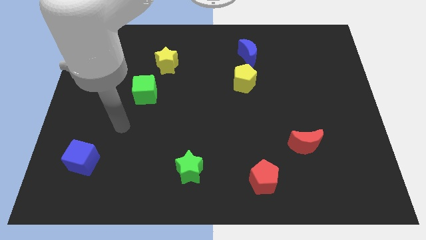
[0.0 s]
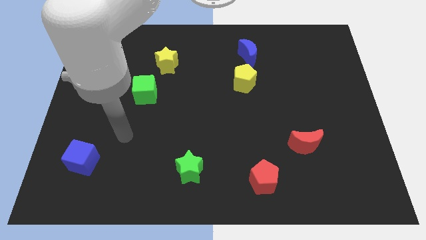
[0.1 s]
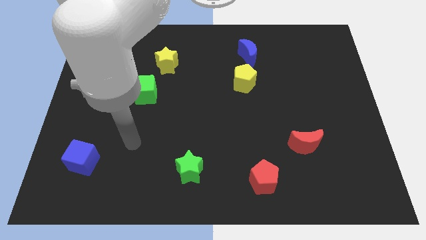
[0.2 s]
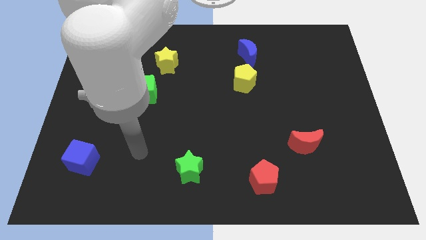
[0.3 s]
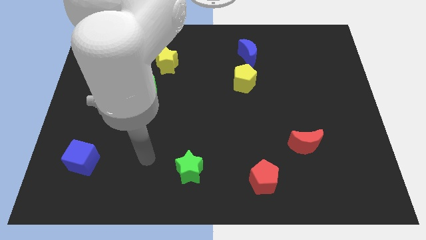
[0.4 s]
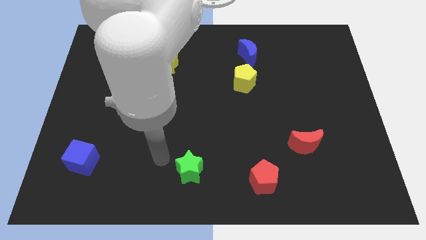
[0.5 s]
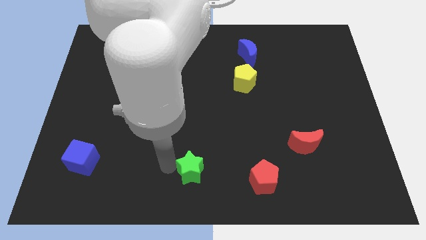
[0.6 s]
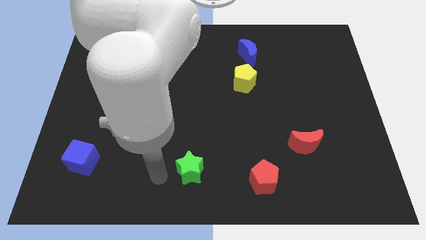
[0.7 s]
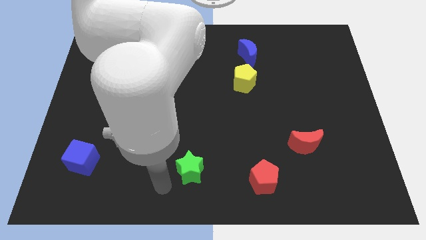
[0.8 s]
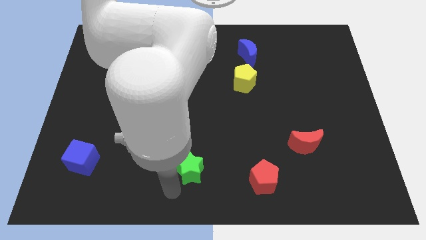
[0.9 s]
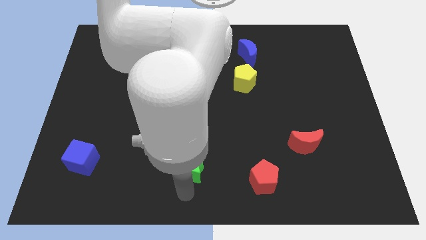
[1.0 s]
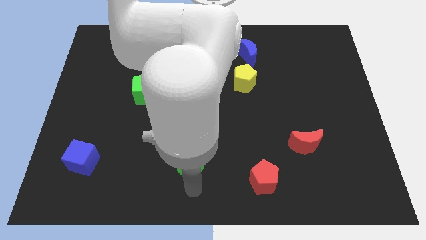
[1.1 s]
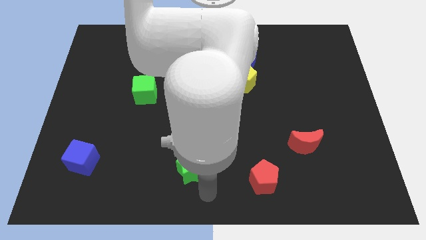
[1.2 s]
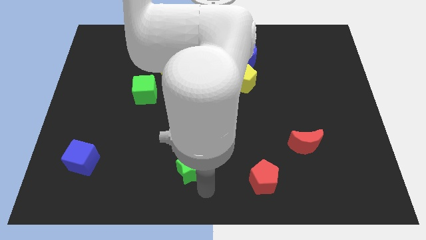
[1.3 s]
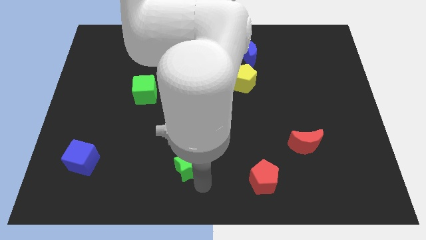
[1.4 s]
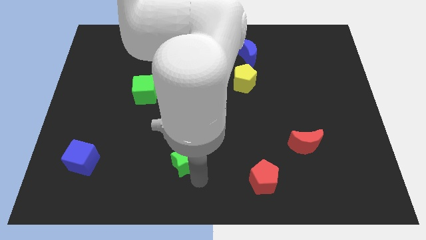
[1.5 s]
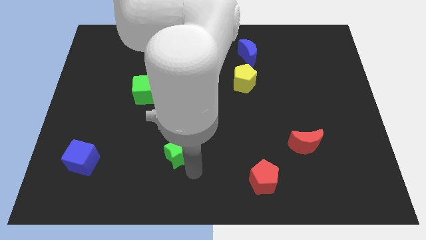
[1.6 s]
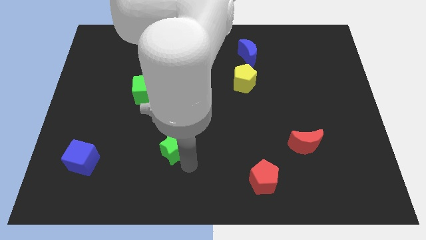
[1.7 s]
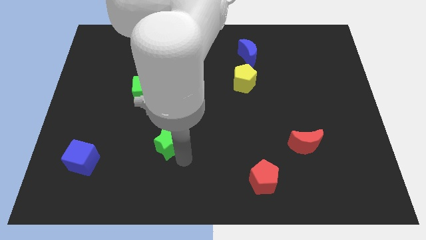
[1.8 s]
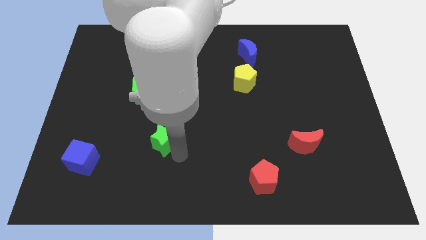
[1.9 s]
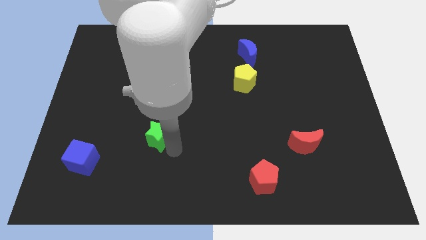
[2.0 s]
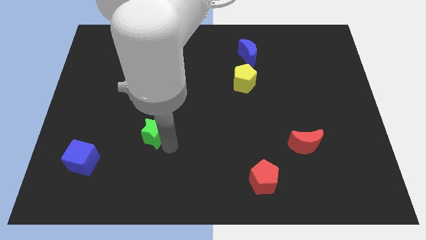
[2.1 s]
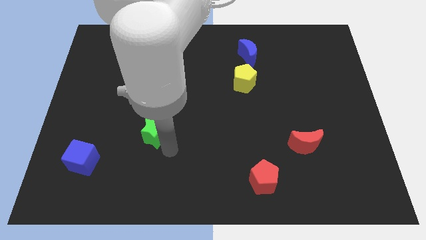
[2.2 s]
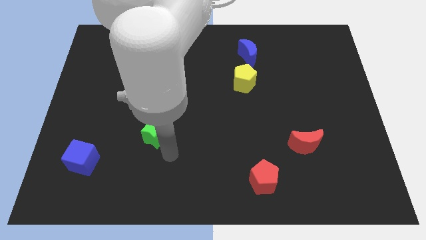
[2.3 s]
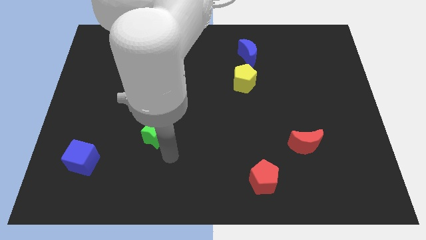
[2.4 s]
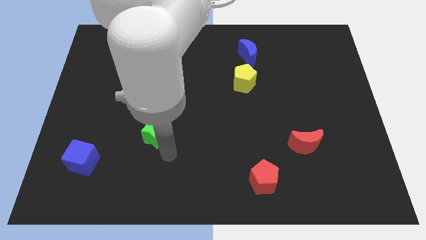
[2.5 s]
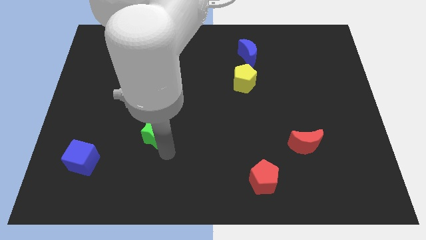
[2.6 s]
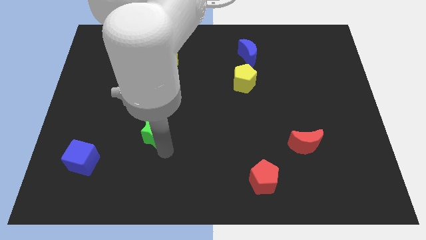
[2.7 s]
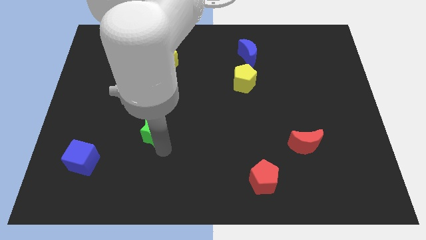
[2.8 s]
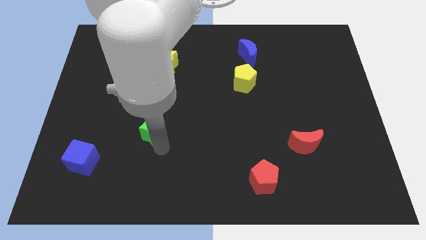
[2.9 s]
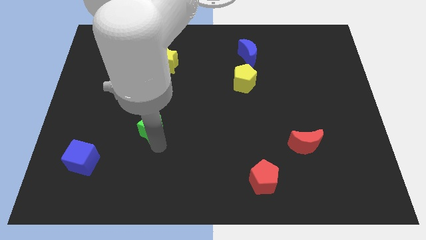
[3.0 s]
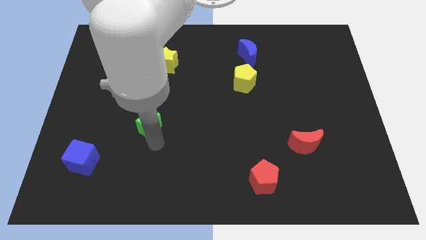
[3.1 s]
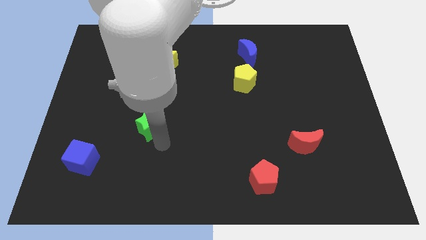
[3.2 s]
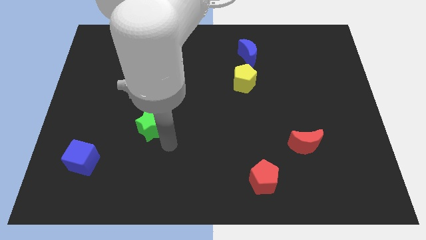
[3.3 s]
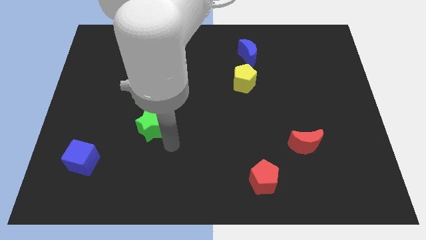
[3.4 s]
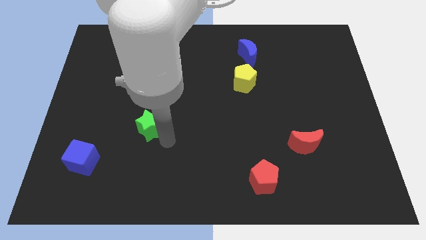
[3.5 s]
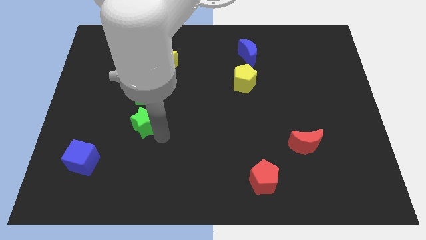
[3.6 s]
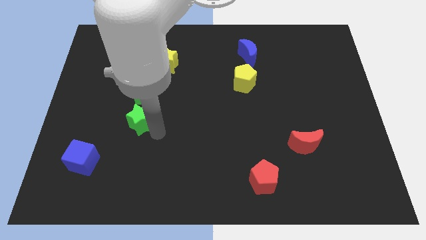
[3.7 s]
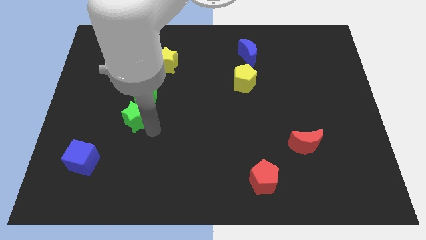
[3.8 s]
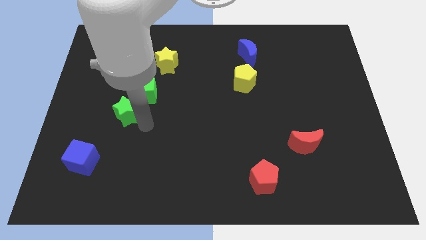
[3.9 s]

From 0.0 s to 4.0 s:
slide the green star up and to the left

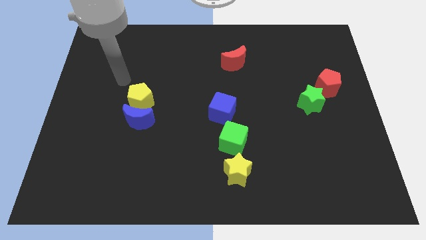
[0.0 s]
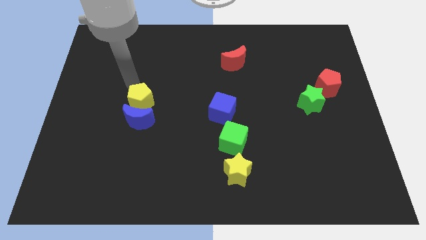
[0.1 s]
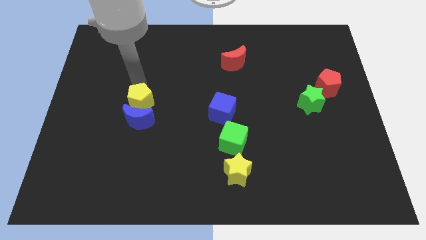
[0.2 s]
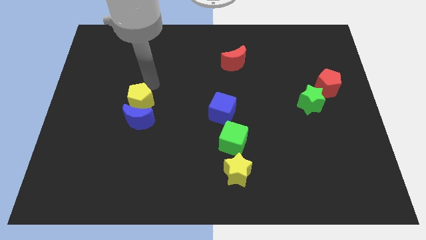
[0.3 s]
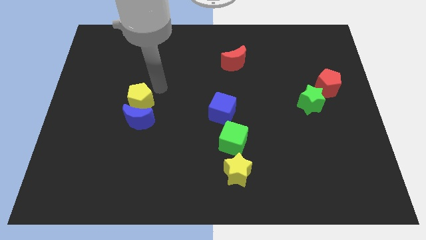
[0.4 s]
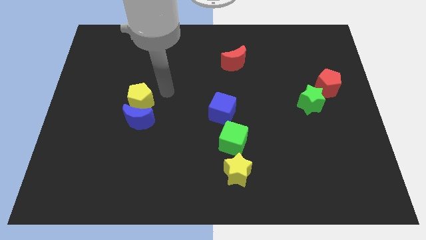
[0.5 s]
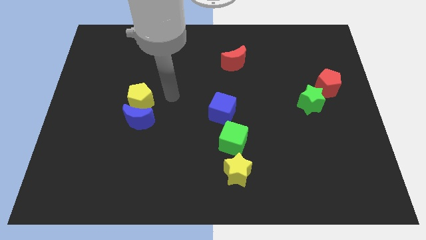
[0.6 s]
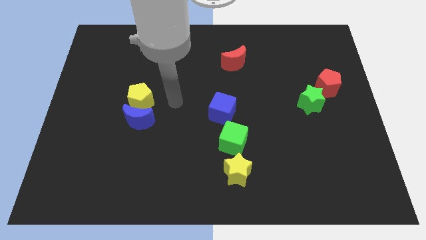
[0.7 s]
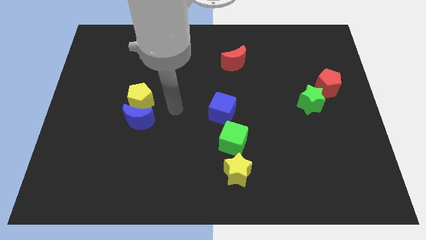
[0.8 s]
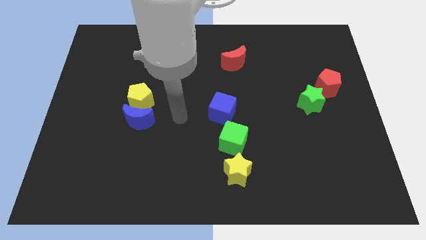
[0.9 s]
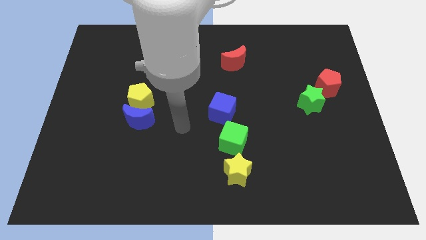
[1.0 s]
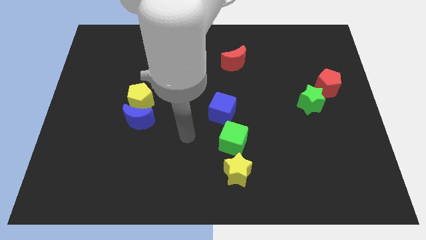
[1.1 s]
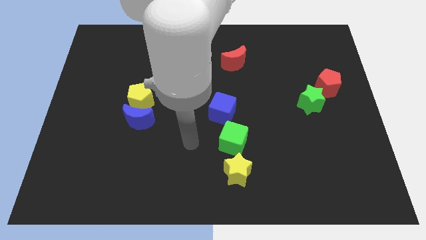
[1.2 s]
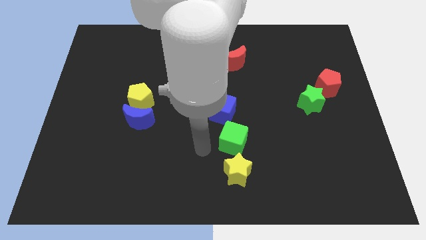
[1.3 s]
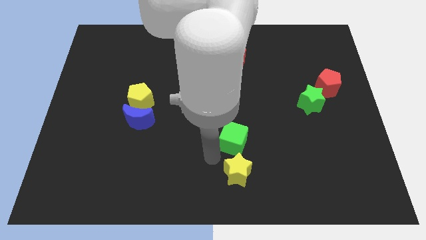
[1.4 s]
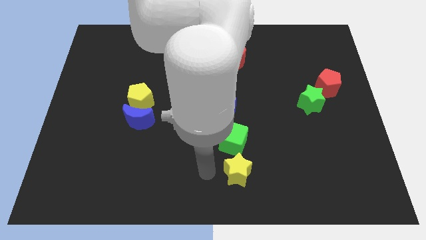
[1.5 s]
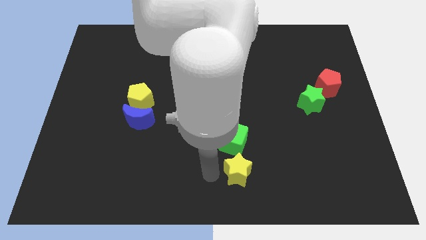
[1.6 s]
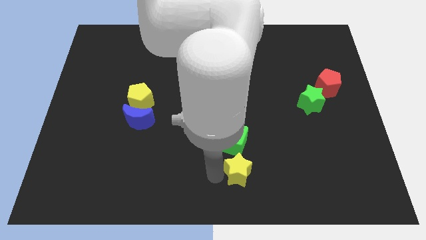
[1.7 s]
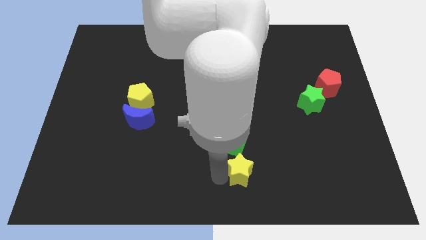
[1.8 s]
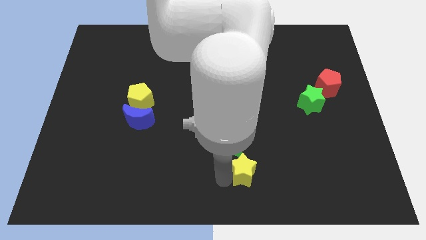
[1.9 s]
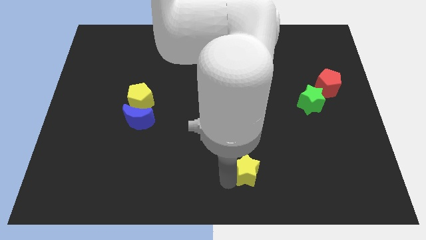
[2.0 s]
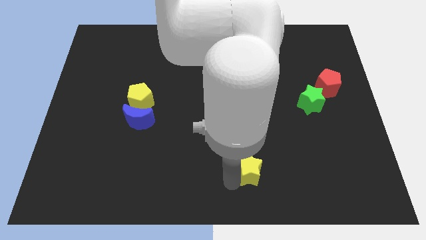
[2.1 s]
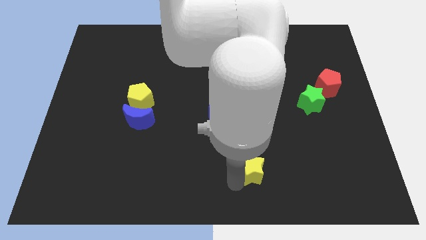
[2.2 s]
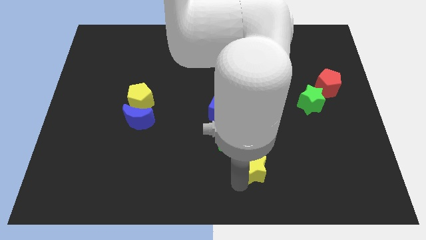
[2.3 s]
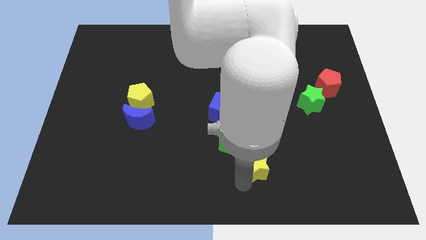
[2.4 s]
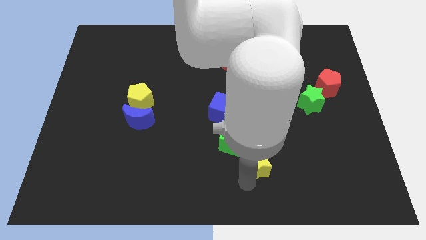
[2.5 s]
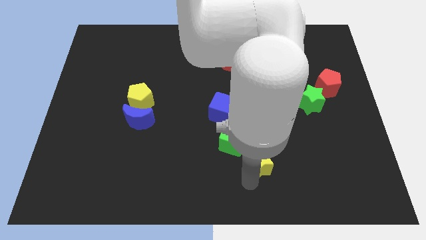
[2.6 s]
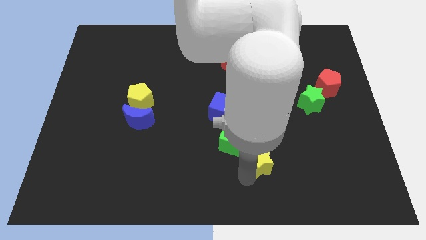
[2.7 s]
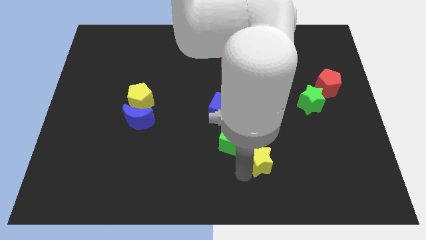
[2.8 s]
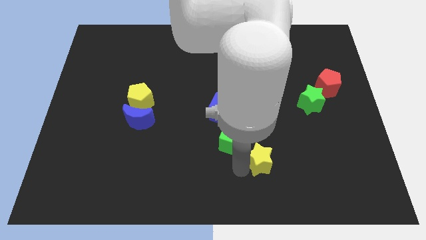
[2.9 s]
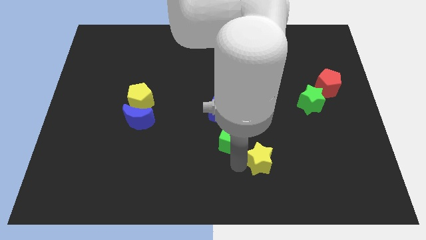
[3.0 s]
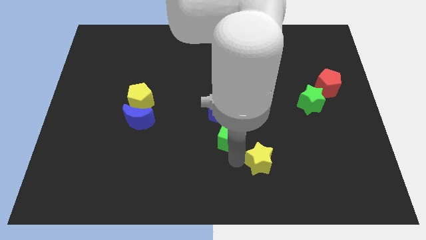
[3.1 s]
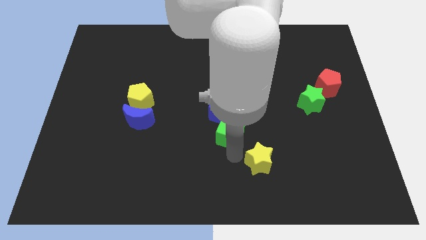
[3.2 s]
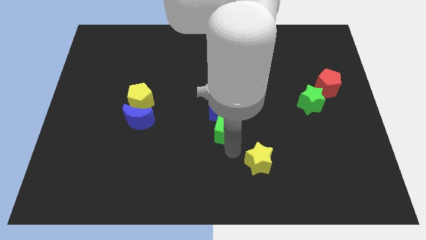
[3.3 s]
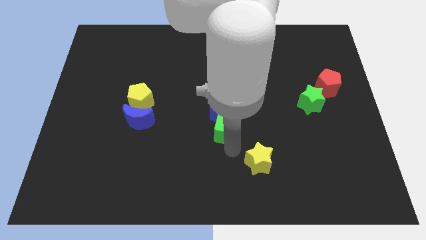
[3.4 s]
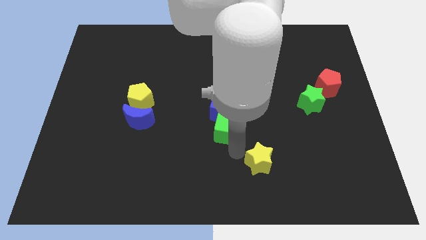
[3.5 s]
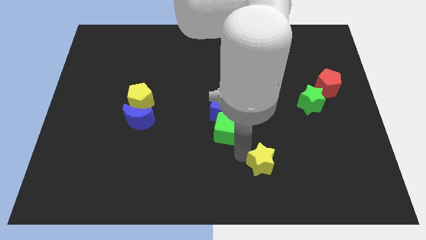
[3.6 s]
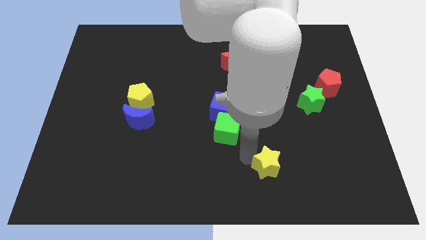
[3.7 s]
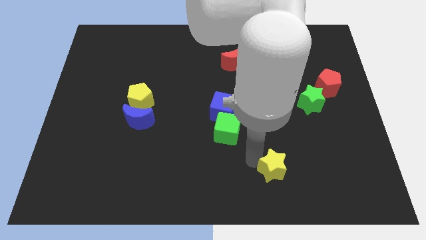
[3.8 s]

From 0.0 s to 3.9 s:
push the yellow star right slightly

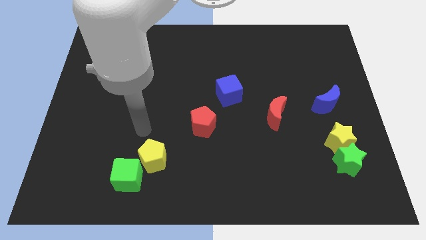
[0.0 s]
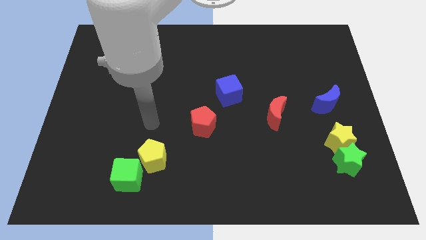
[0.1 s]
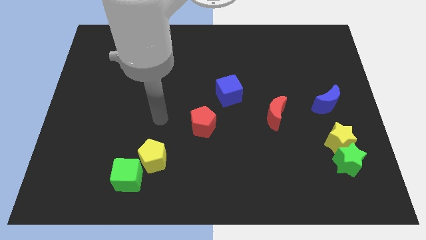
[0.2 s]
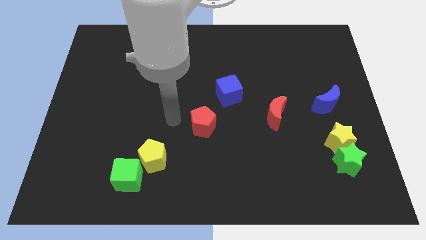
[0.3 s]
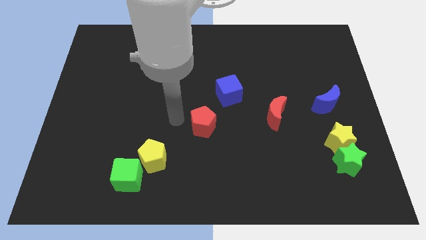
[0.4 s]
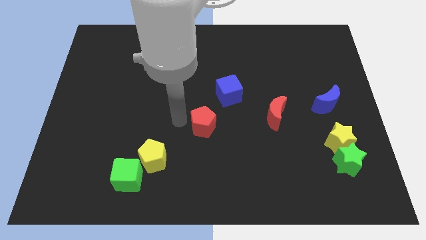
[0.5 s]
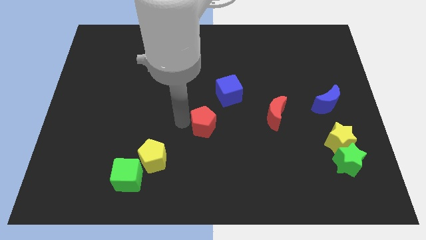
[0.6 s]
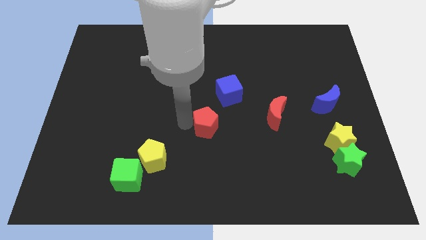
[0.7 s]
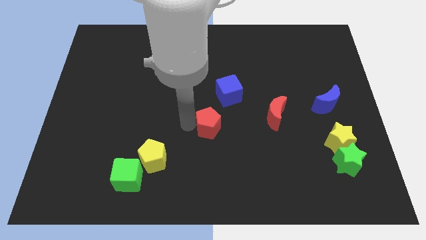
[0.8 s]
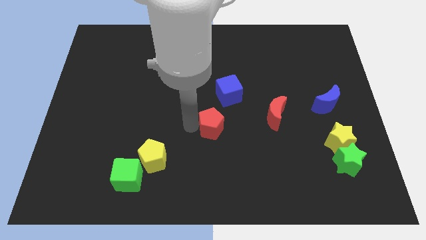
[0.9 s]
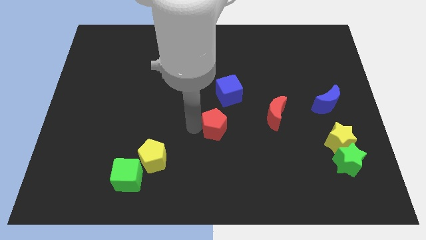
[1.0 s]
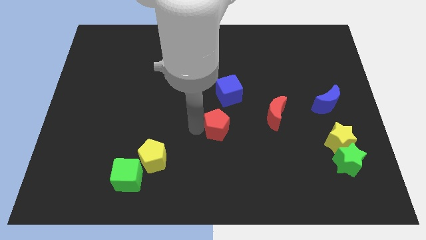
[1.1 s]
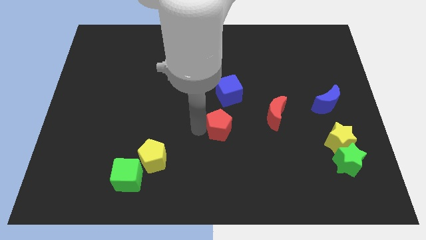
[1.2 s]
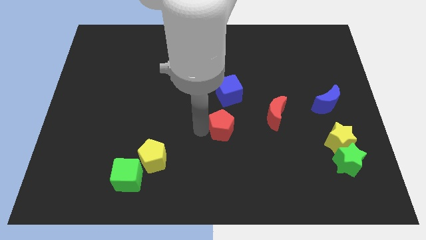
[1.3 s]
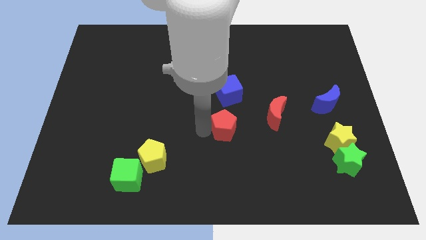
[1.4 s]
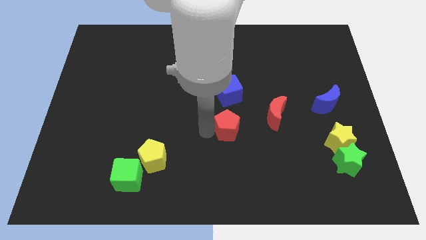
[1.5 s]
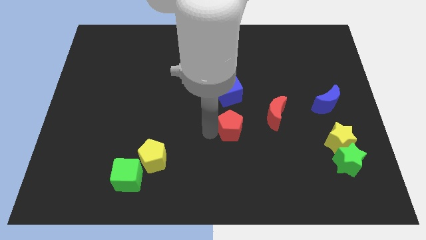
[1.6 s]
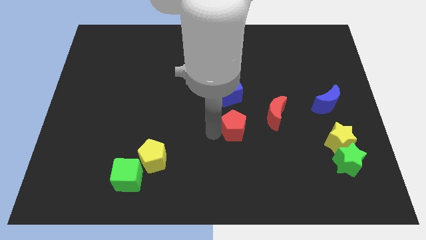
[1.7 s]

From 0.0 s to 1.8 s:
slide the red pentagon a bit to the right
